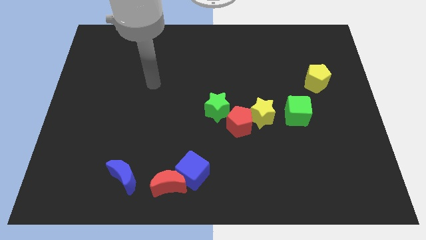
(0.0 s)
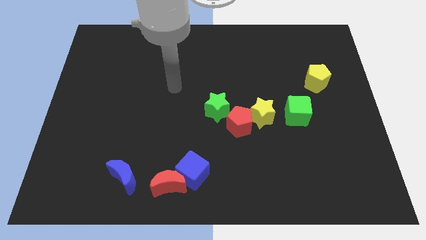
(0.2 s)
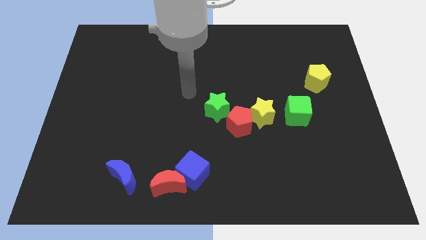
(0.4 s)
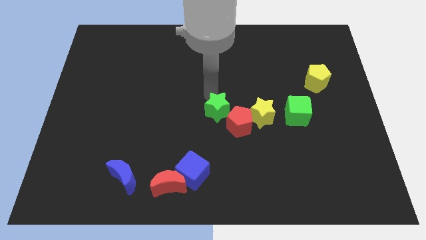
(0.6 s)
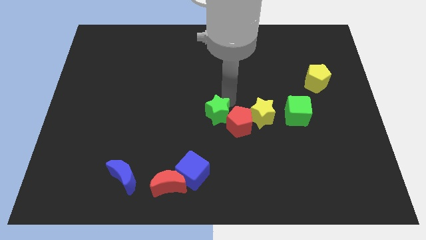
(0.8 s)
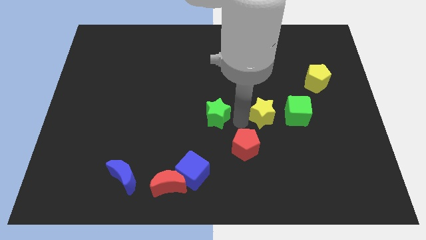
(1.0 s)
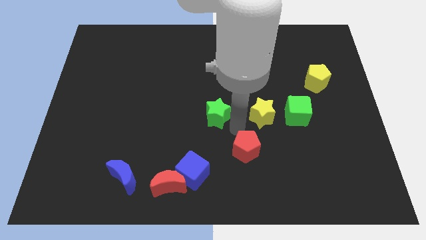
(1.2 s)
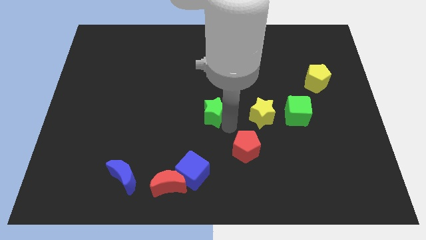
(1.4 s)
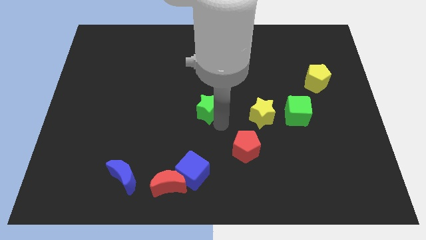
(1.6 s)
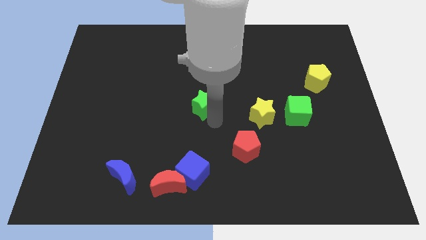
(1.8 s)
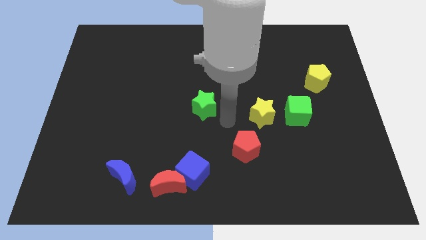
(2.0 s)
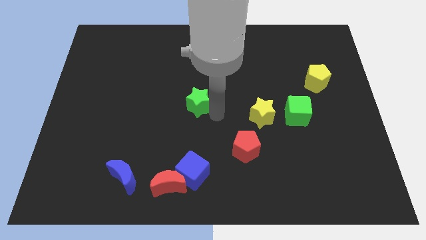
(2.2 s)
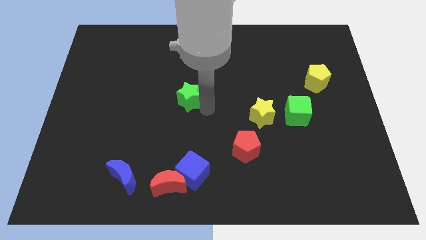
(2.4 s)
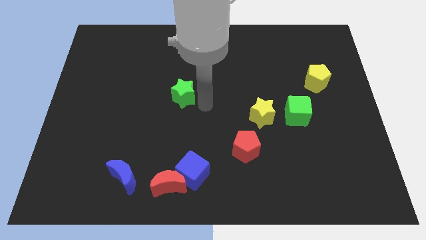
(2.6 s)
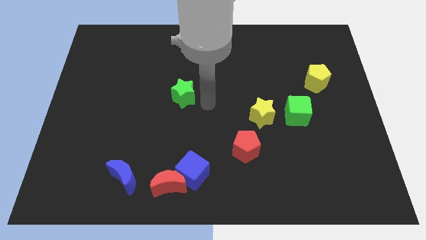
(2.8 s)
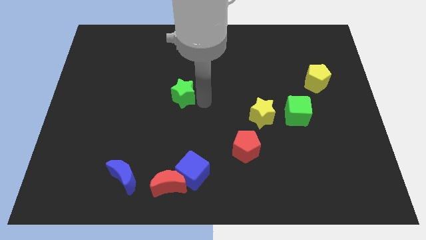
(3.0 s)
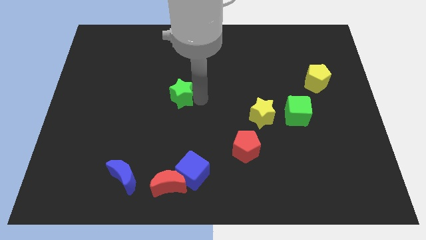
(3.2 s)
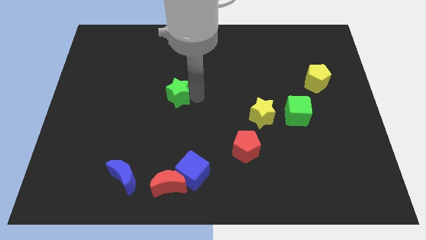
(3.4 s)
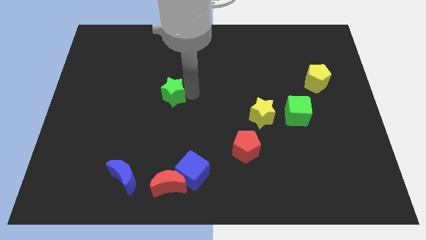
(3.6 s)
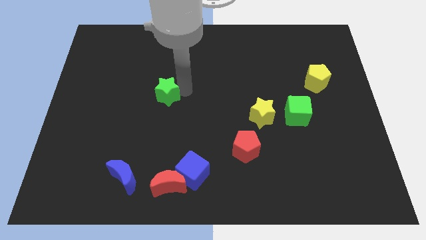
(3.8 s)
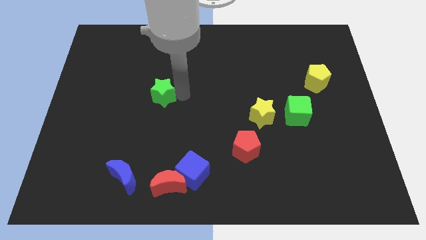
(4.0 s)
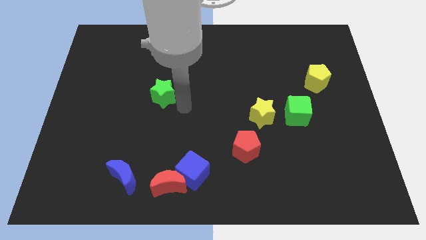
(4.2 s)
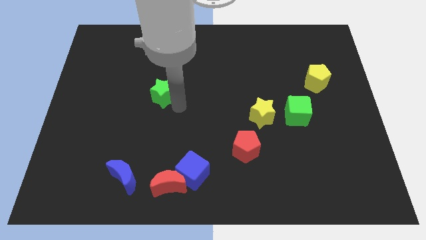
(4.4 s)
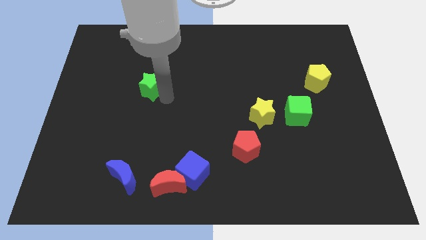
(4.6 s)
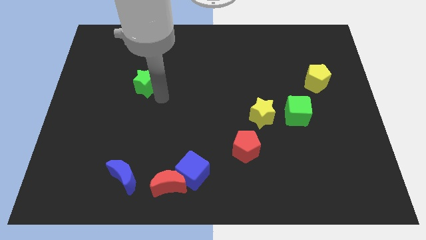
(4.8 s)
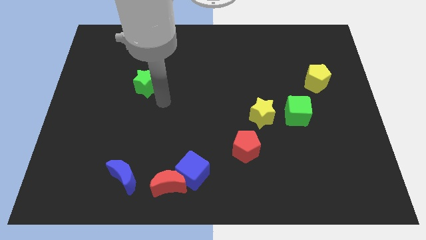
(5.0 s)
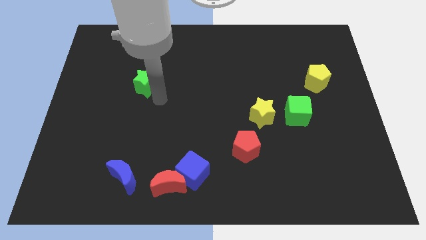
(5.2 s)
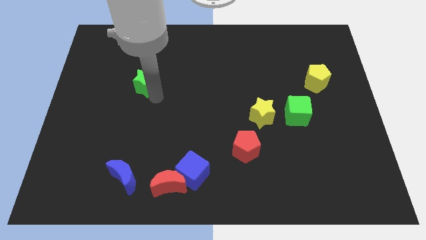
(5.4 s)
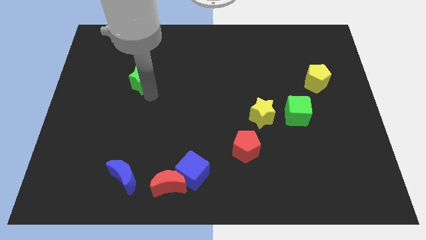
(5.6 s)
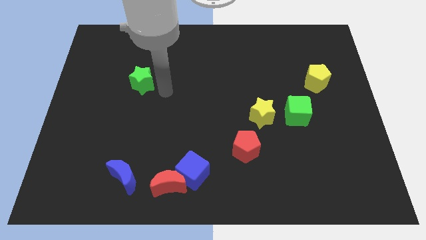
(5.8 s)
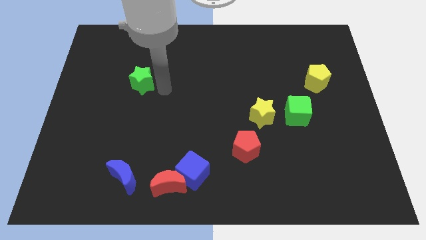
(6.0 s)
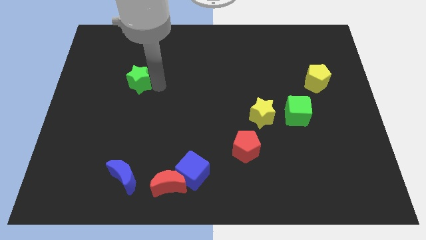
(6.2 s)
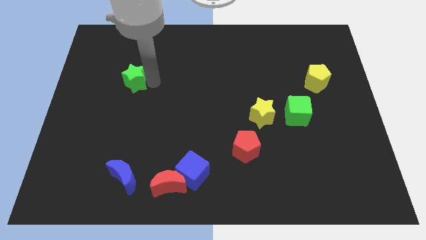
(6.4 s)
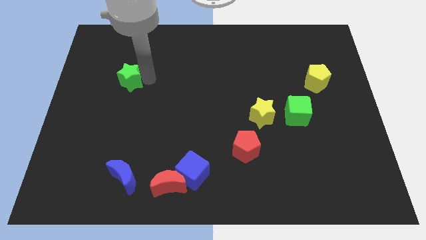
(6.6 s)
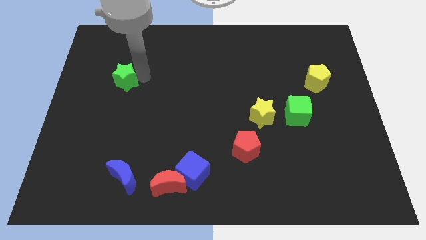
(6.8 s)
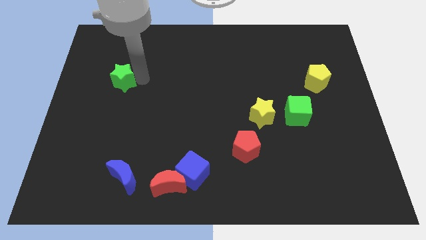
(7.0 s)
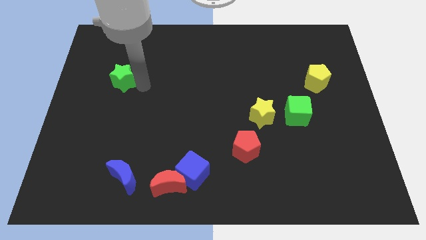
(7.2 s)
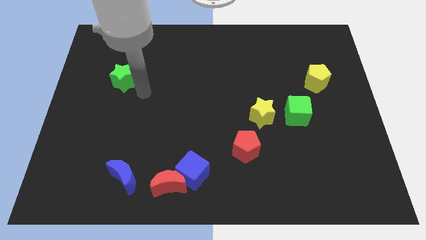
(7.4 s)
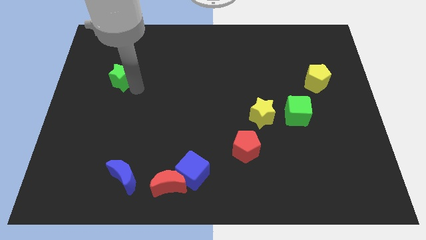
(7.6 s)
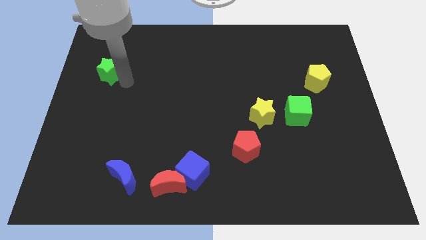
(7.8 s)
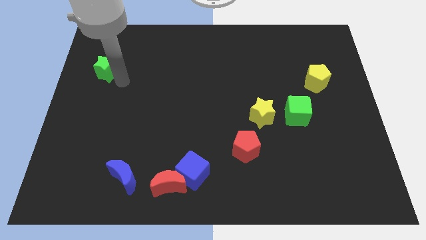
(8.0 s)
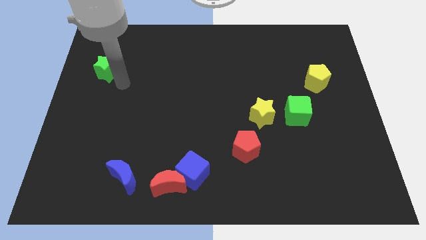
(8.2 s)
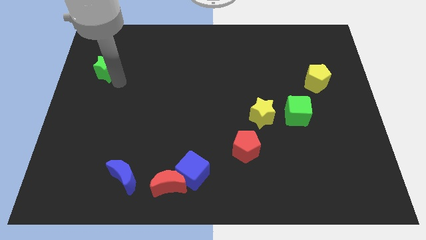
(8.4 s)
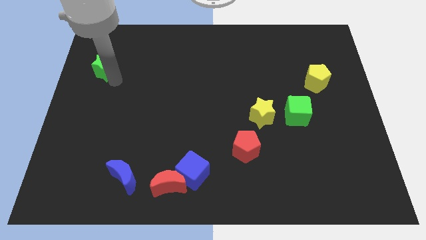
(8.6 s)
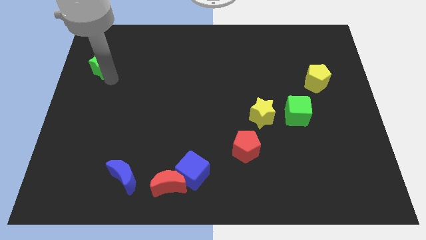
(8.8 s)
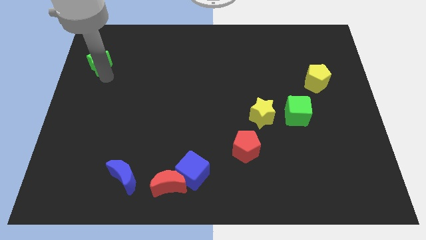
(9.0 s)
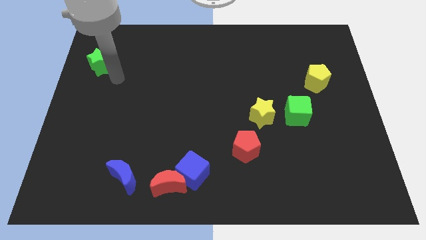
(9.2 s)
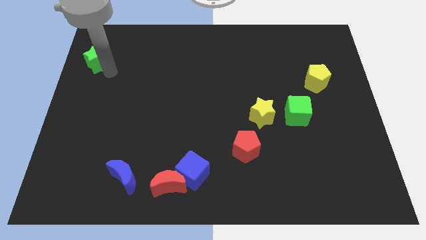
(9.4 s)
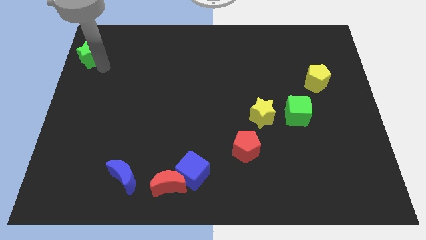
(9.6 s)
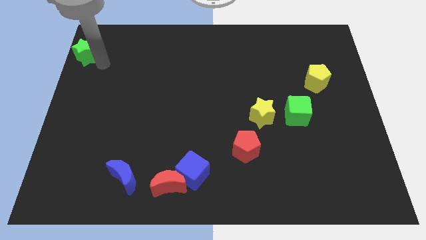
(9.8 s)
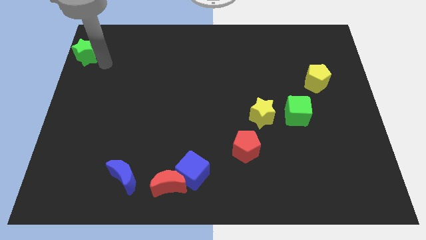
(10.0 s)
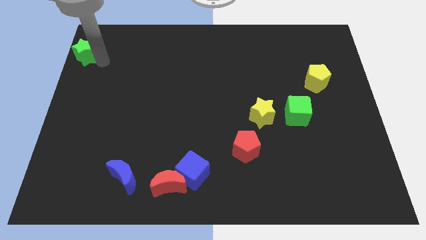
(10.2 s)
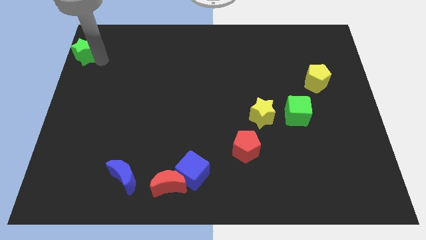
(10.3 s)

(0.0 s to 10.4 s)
slide the green star to the top left
